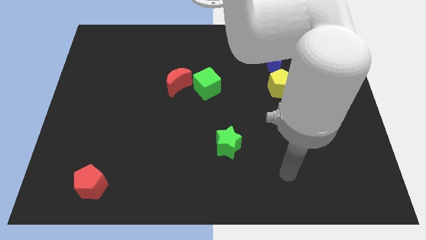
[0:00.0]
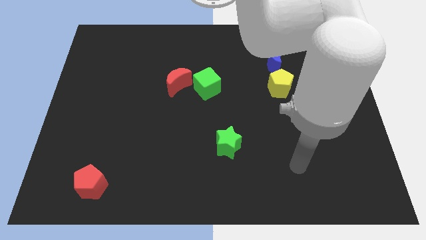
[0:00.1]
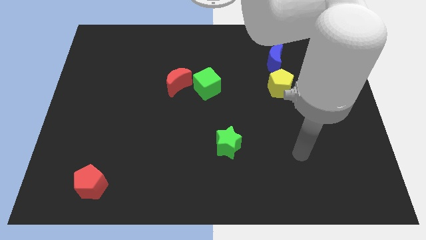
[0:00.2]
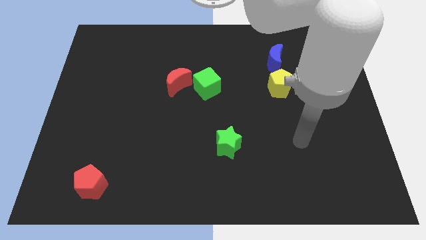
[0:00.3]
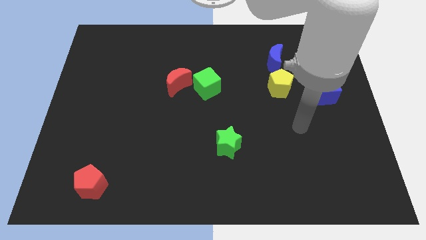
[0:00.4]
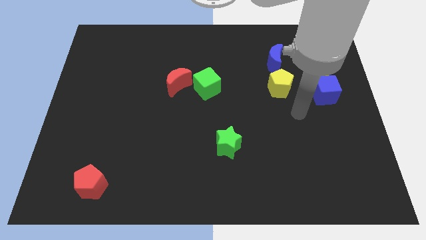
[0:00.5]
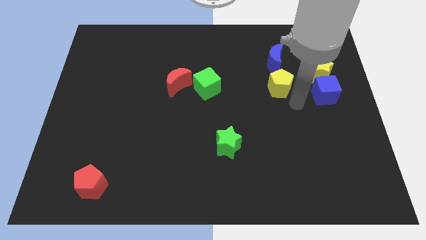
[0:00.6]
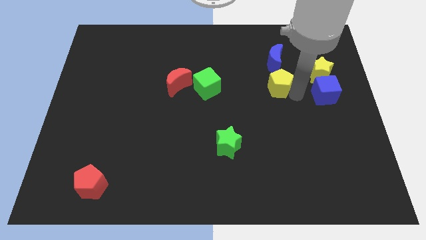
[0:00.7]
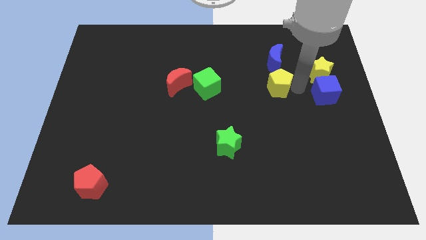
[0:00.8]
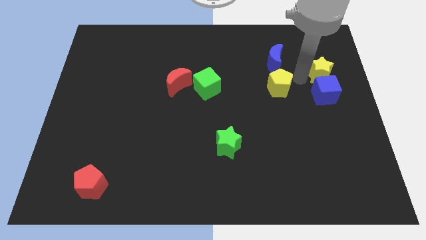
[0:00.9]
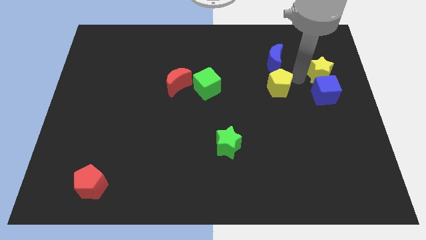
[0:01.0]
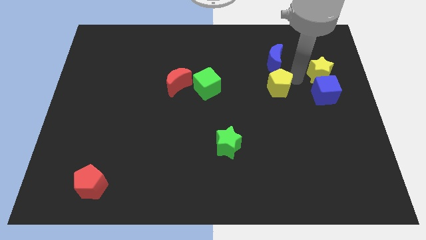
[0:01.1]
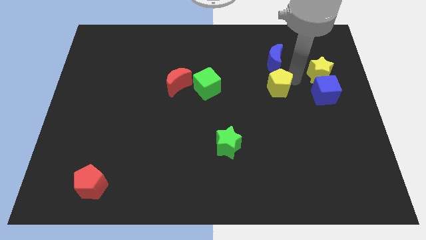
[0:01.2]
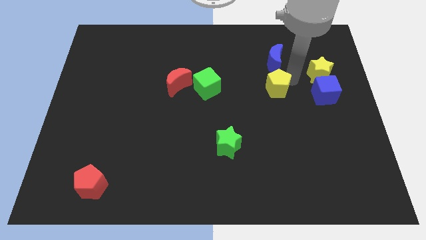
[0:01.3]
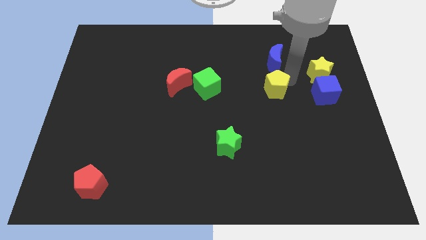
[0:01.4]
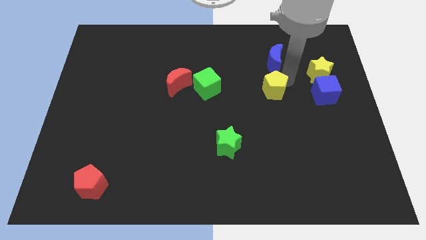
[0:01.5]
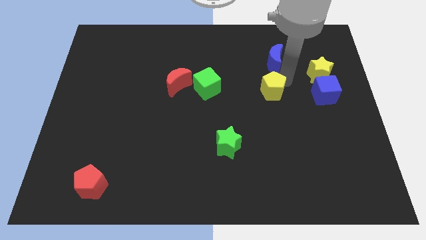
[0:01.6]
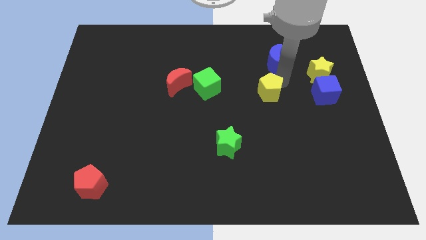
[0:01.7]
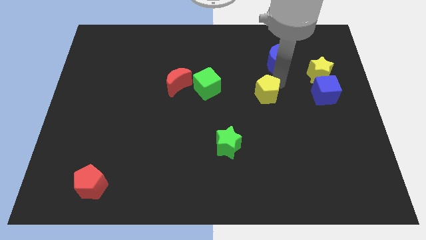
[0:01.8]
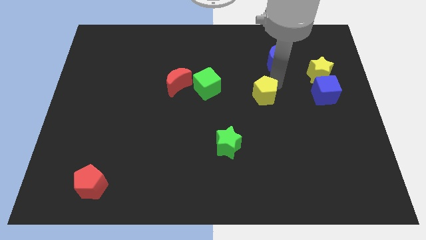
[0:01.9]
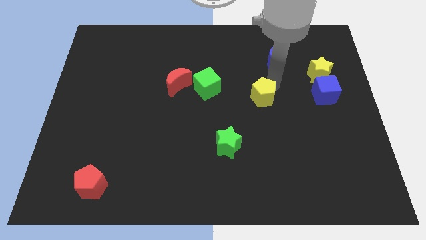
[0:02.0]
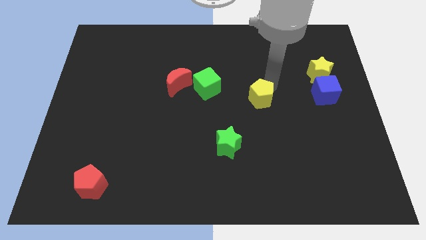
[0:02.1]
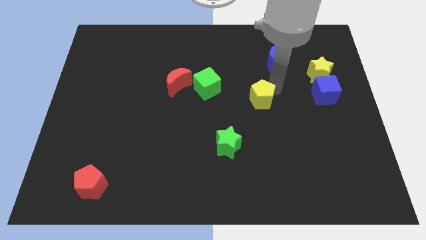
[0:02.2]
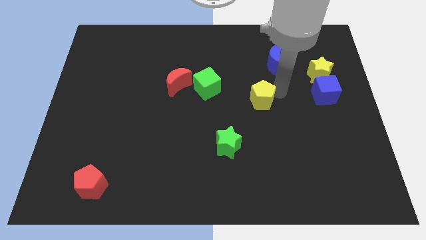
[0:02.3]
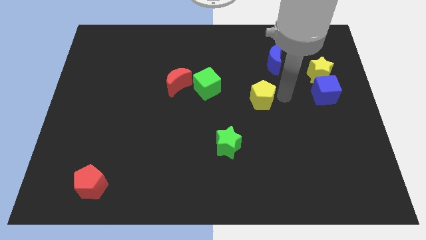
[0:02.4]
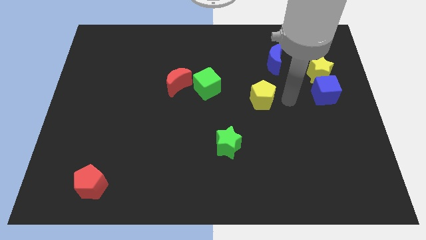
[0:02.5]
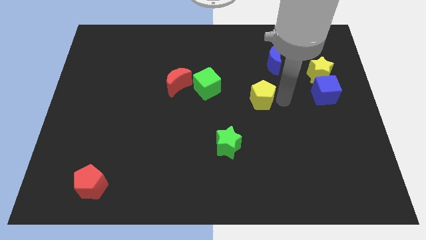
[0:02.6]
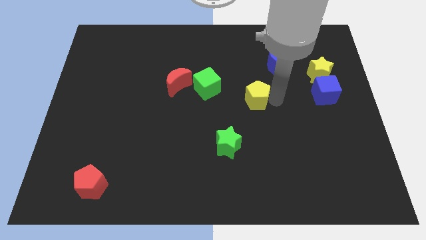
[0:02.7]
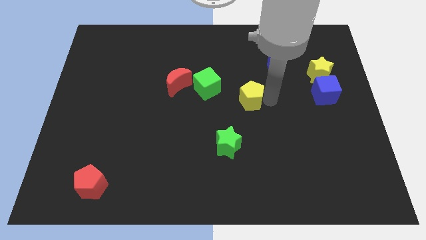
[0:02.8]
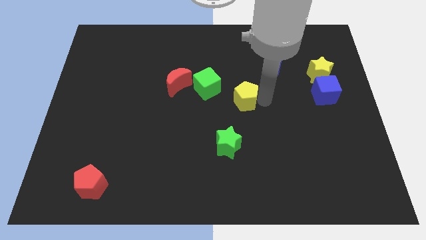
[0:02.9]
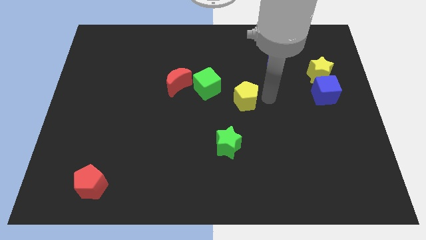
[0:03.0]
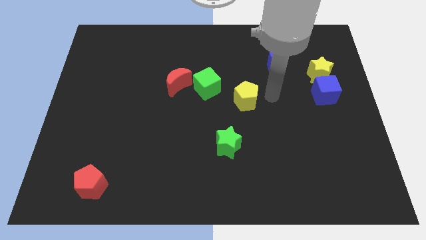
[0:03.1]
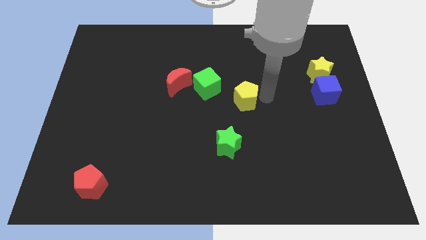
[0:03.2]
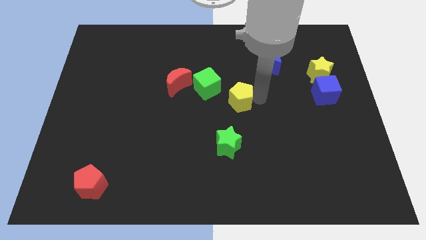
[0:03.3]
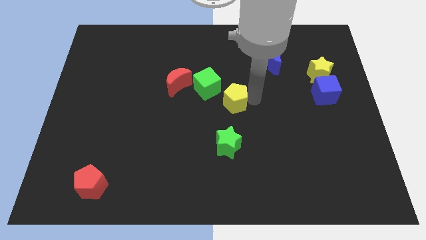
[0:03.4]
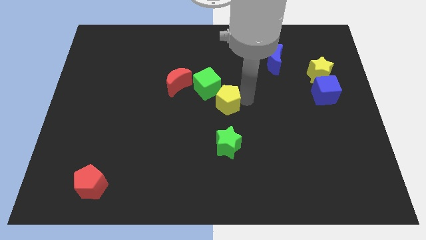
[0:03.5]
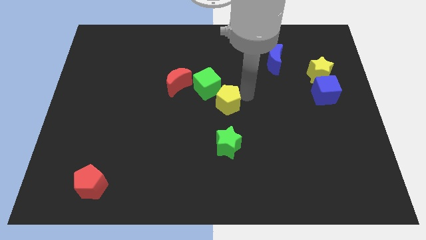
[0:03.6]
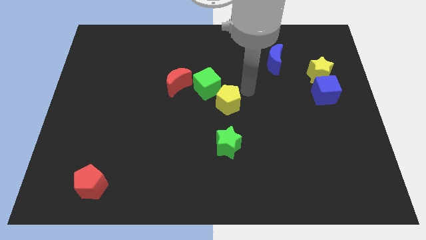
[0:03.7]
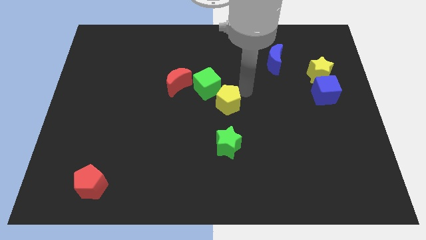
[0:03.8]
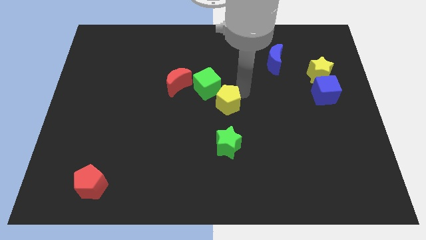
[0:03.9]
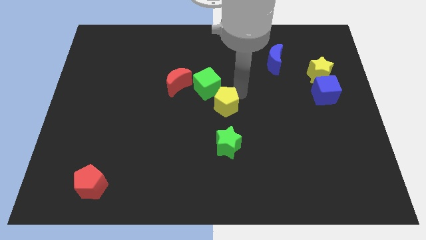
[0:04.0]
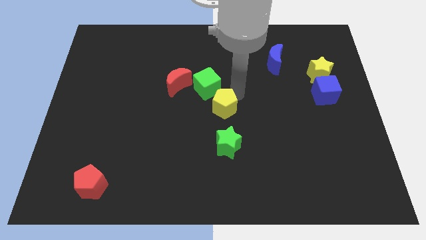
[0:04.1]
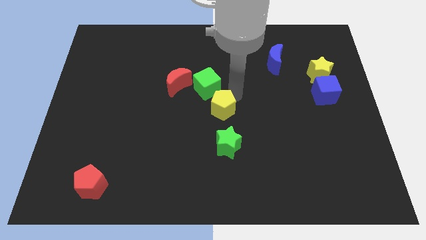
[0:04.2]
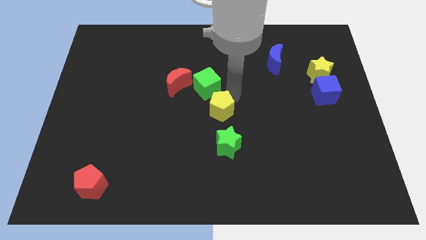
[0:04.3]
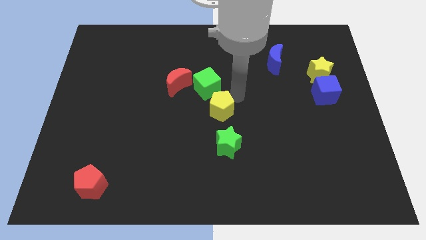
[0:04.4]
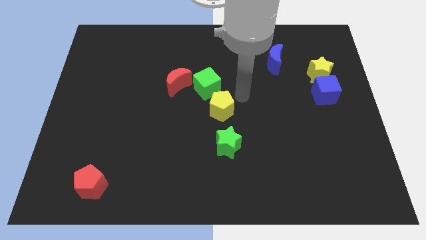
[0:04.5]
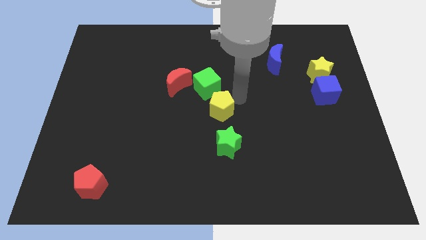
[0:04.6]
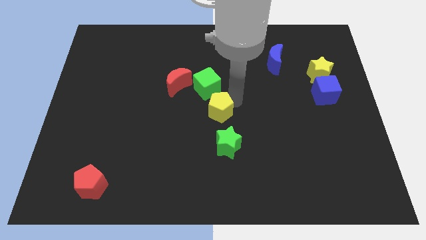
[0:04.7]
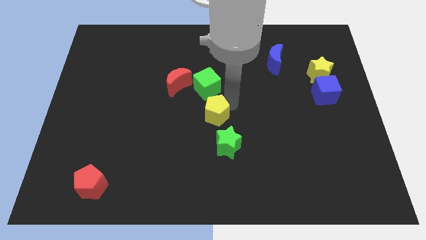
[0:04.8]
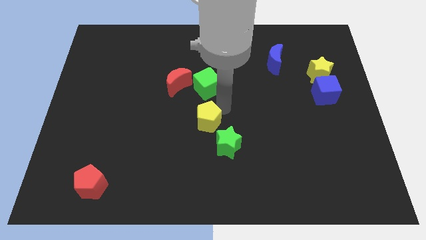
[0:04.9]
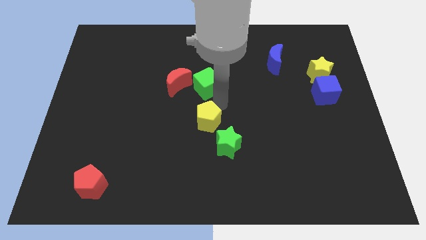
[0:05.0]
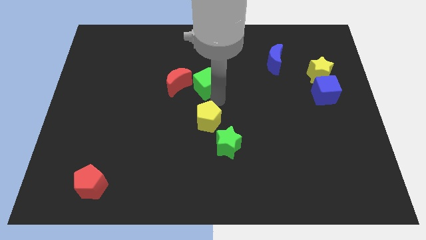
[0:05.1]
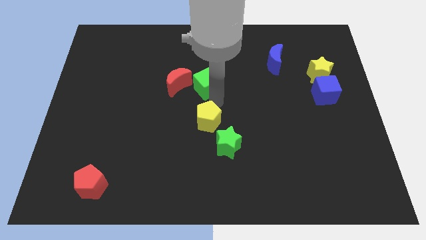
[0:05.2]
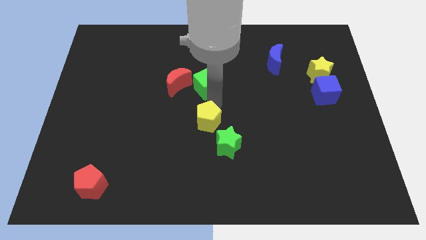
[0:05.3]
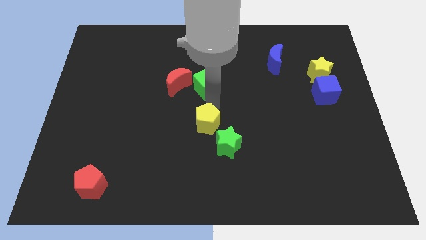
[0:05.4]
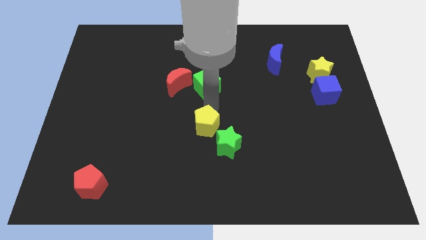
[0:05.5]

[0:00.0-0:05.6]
push the yellow pentagon down and left diagonally

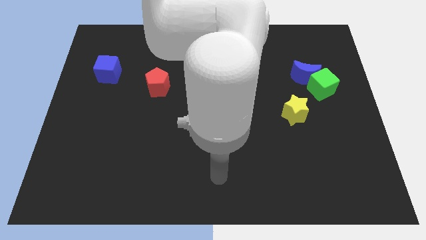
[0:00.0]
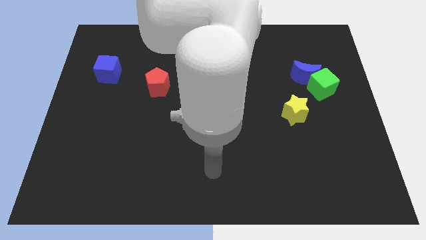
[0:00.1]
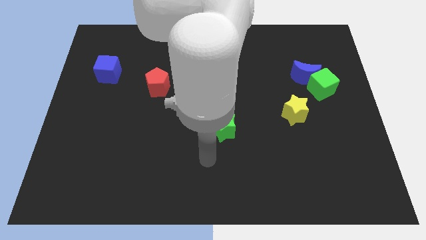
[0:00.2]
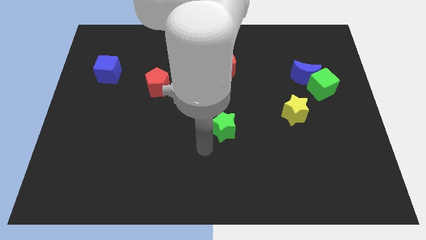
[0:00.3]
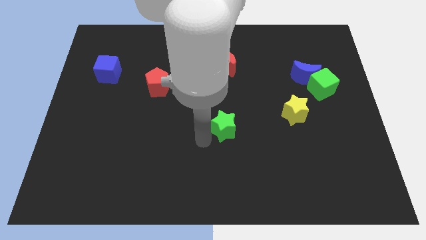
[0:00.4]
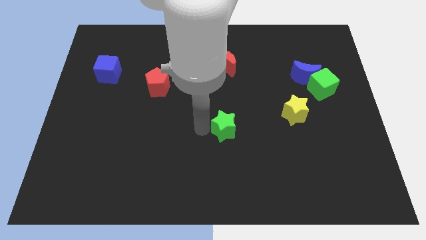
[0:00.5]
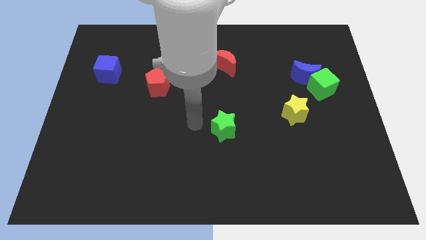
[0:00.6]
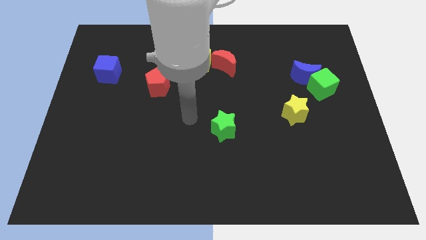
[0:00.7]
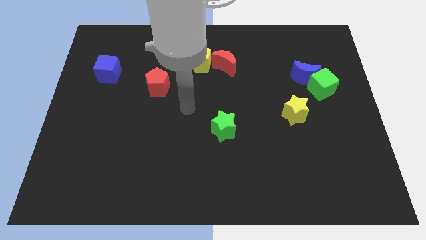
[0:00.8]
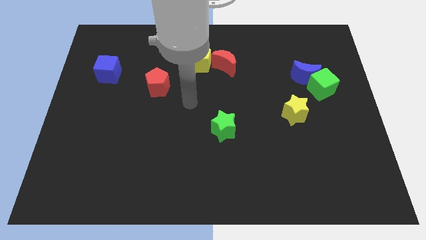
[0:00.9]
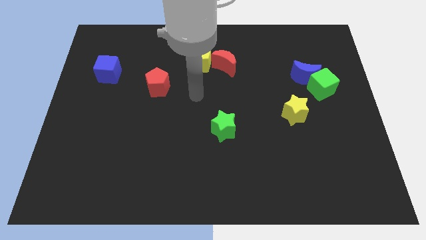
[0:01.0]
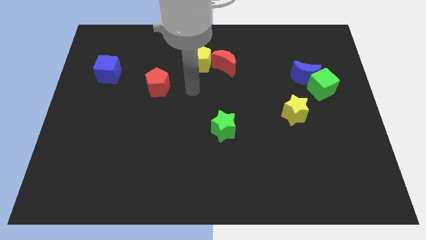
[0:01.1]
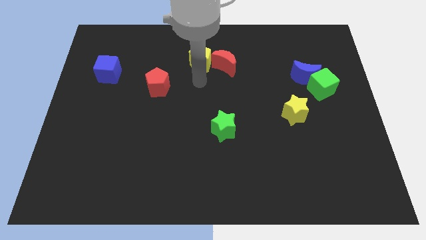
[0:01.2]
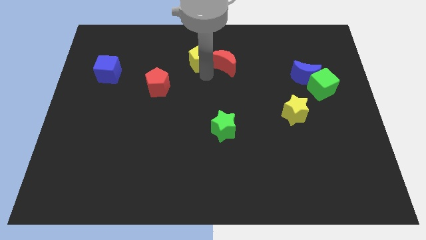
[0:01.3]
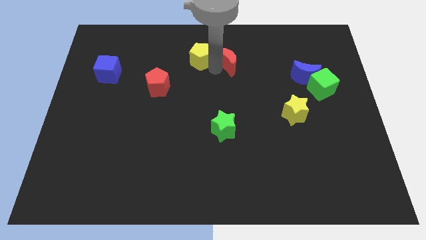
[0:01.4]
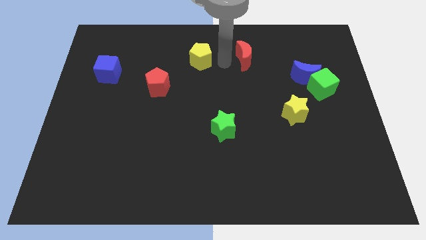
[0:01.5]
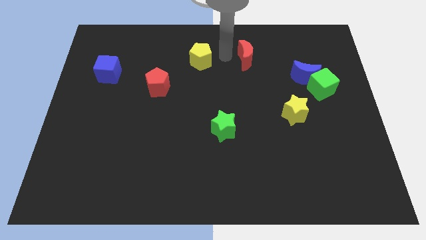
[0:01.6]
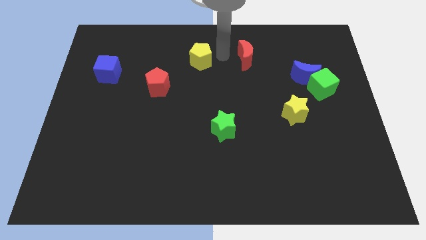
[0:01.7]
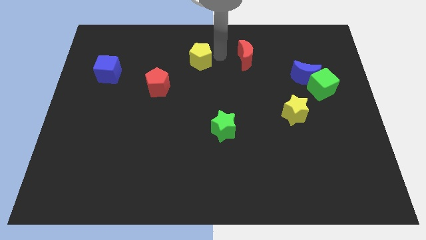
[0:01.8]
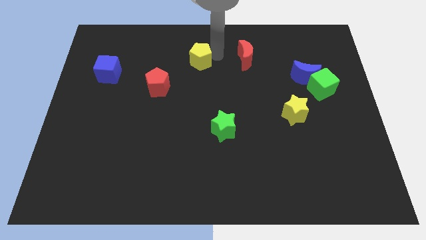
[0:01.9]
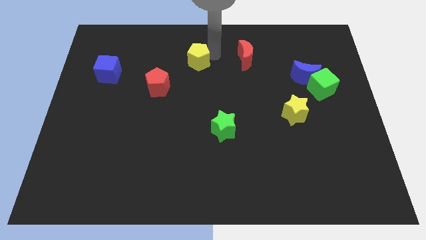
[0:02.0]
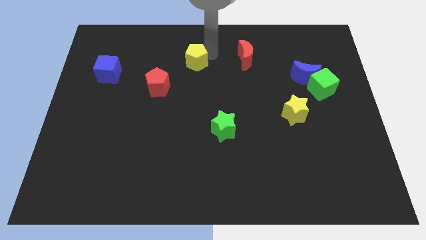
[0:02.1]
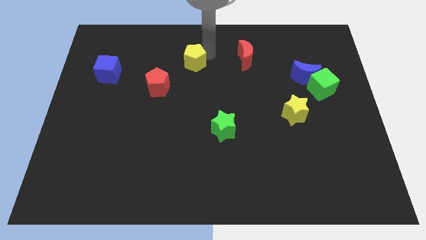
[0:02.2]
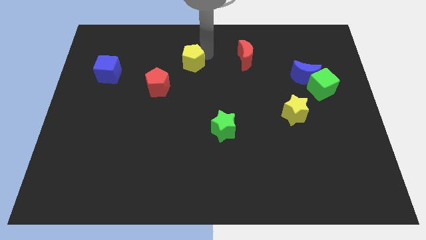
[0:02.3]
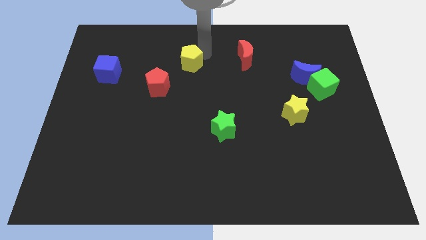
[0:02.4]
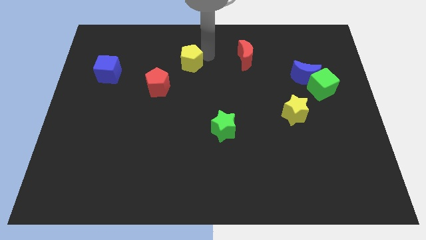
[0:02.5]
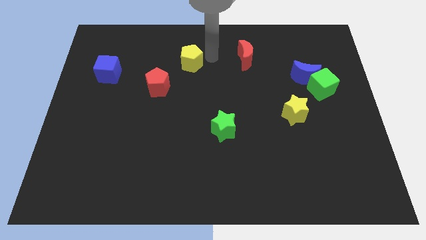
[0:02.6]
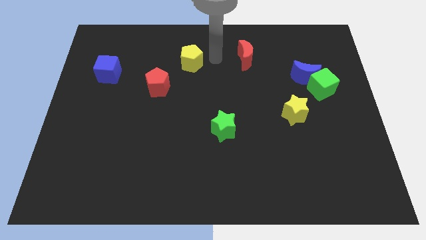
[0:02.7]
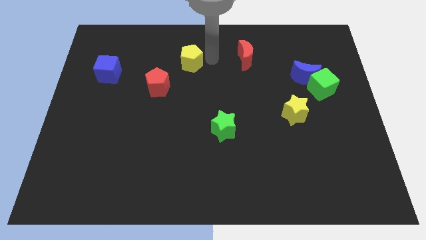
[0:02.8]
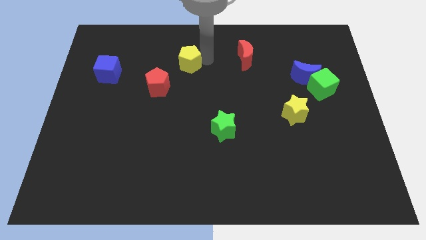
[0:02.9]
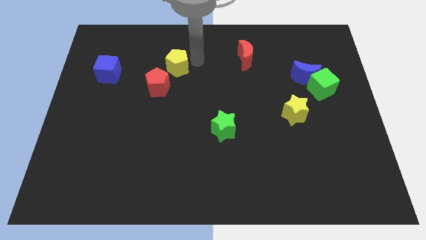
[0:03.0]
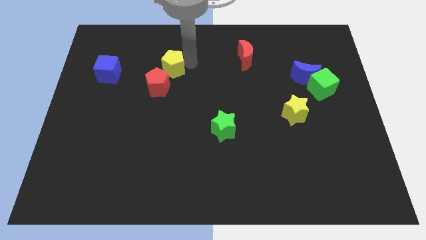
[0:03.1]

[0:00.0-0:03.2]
move the yellow pentagon left somewhat
